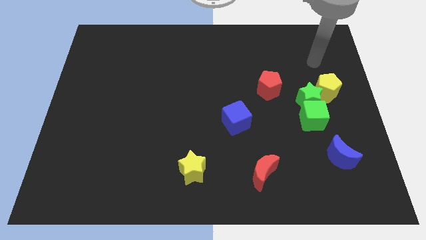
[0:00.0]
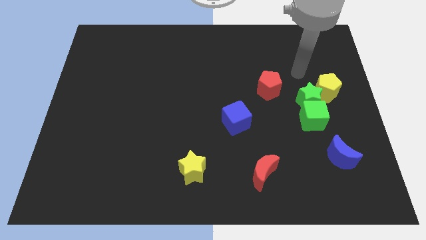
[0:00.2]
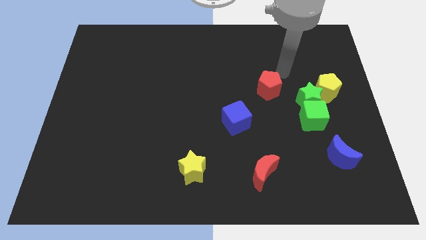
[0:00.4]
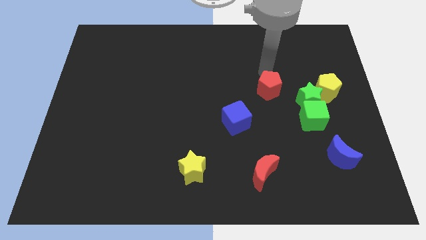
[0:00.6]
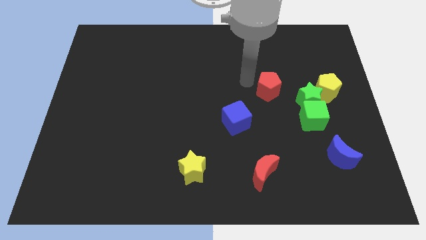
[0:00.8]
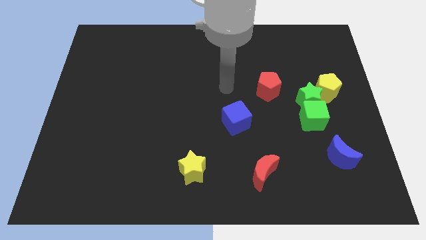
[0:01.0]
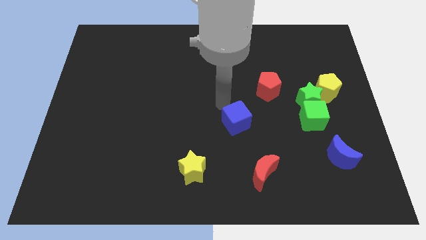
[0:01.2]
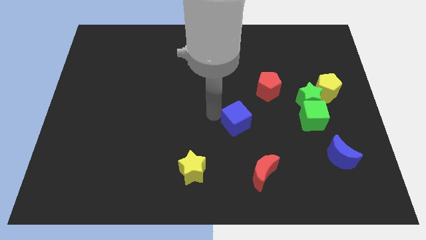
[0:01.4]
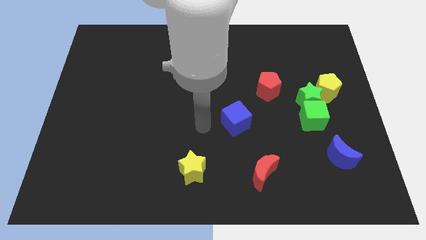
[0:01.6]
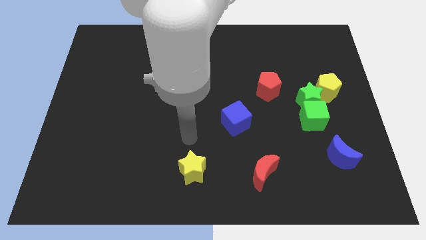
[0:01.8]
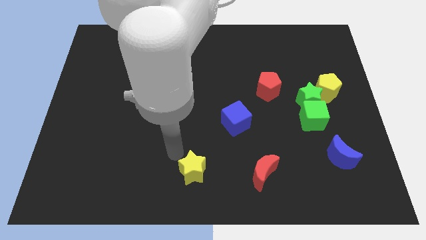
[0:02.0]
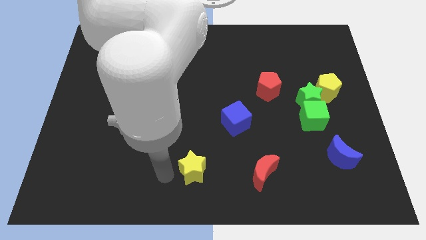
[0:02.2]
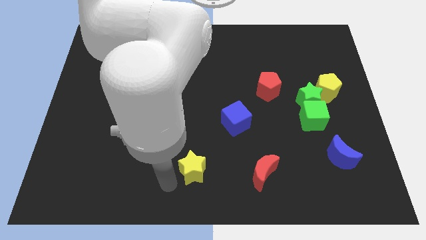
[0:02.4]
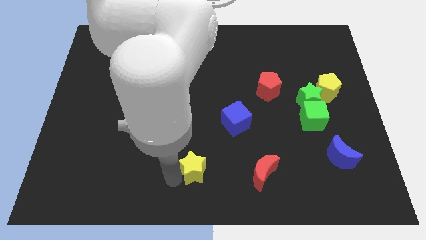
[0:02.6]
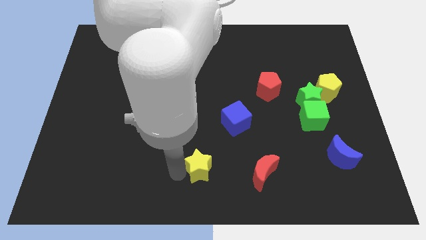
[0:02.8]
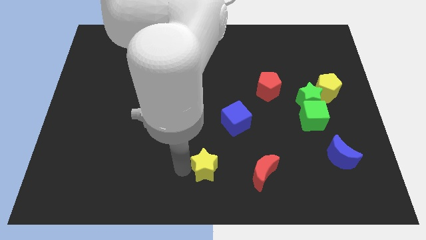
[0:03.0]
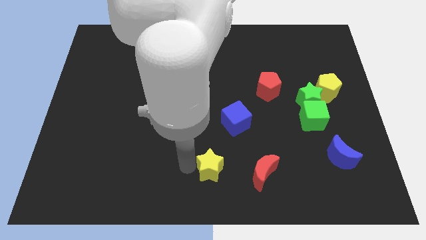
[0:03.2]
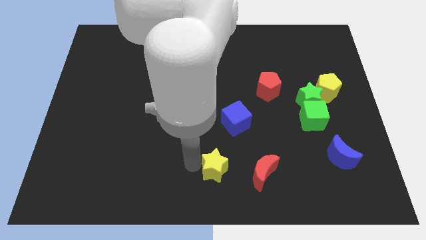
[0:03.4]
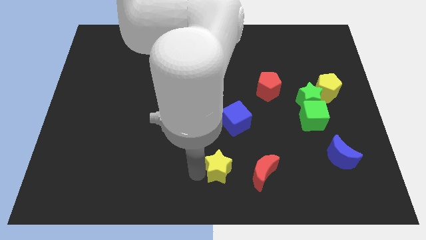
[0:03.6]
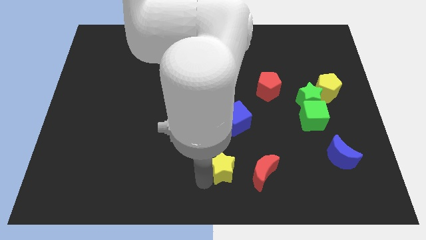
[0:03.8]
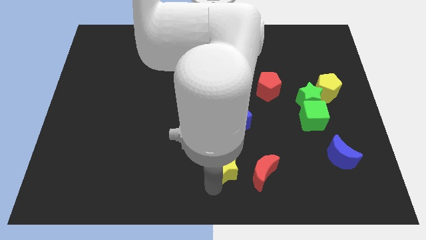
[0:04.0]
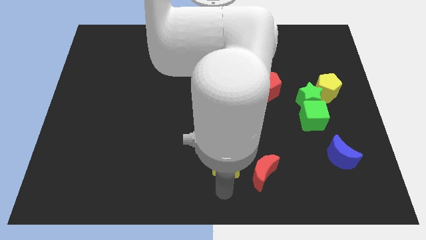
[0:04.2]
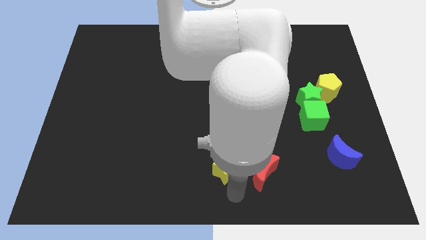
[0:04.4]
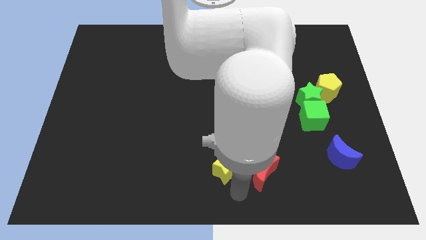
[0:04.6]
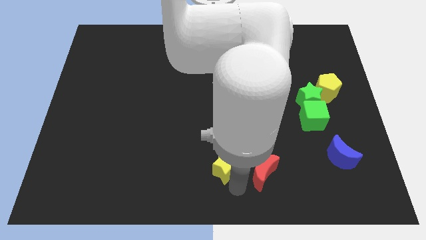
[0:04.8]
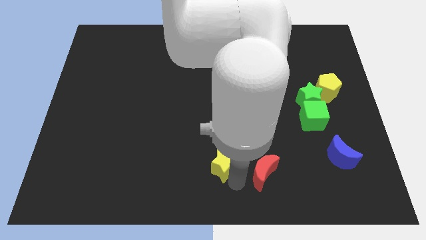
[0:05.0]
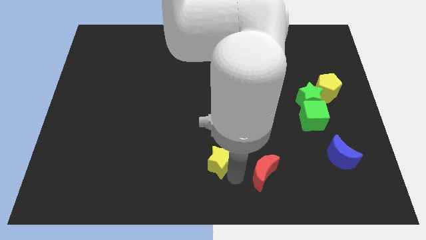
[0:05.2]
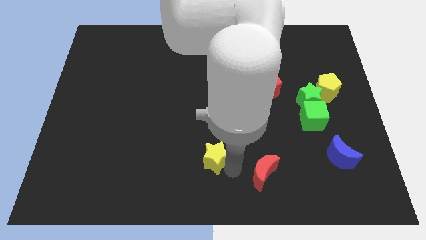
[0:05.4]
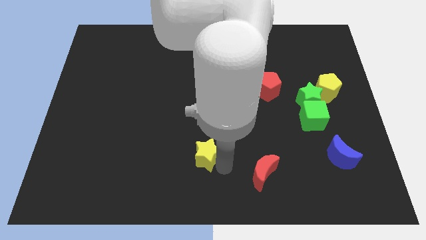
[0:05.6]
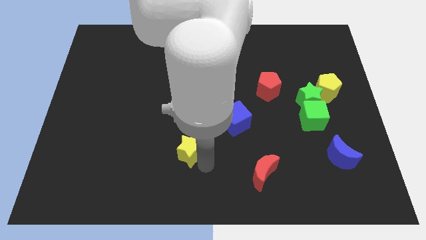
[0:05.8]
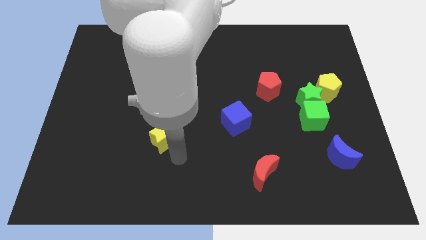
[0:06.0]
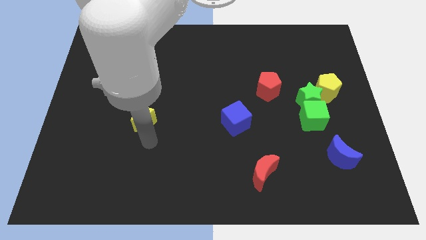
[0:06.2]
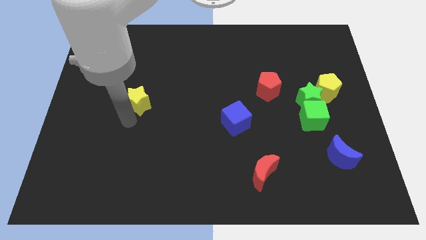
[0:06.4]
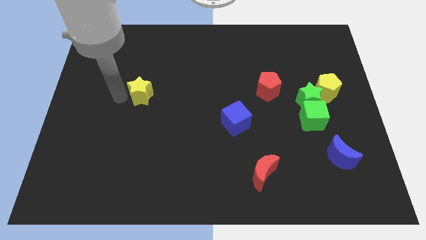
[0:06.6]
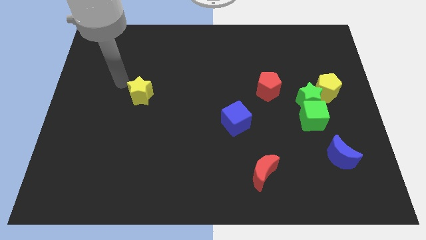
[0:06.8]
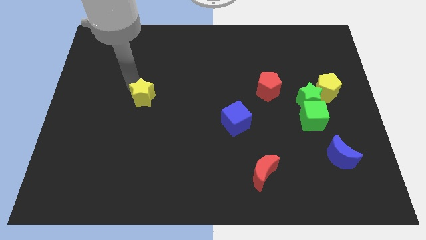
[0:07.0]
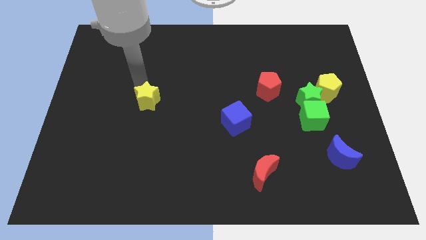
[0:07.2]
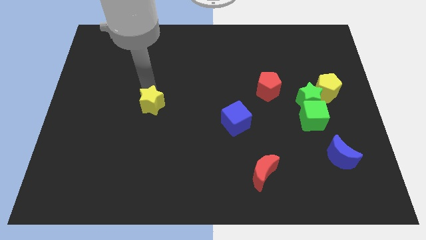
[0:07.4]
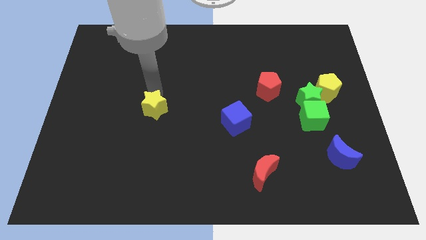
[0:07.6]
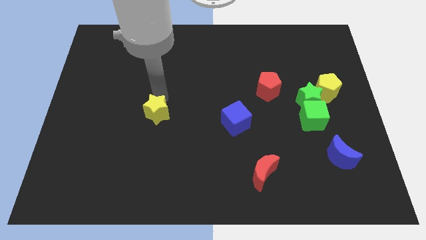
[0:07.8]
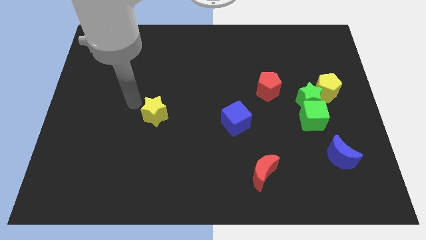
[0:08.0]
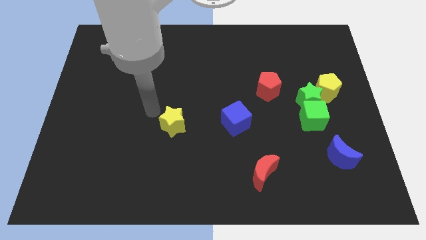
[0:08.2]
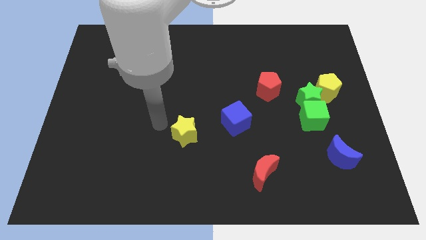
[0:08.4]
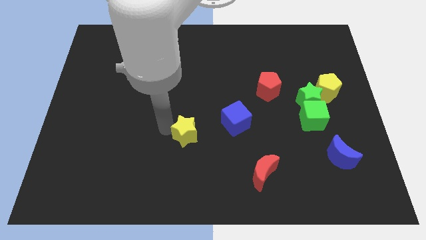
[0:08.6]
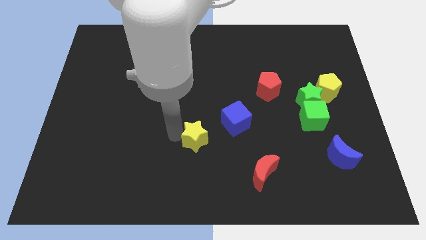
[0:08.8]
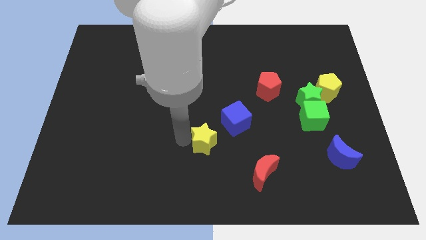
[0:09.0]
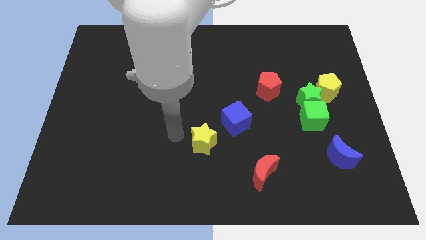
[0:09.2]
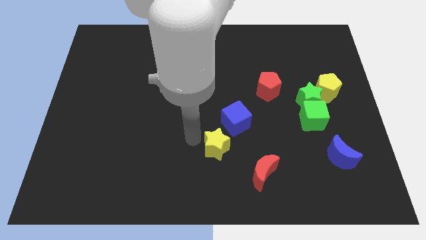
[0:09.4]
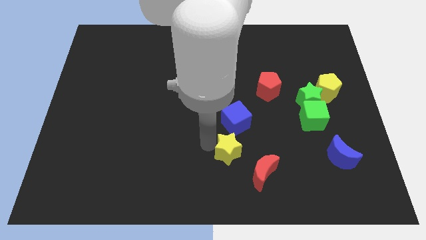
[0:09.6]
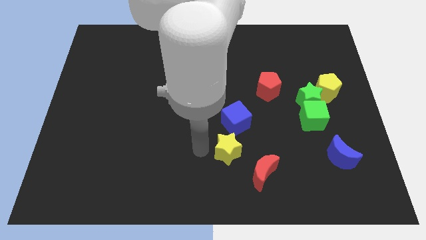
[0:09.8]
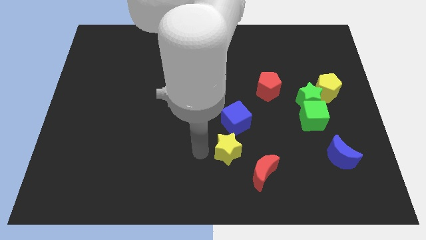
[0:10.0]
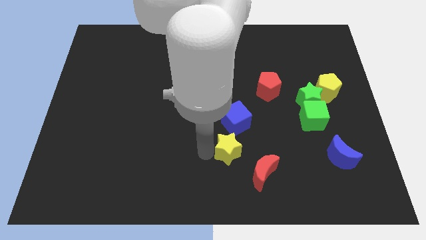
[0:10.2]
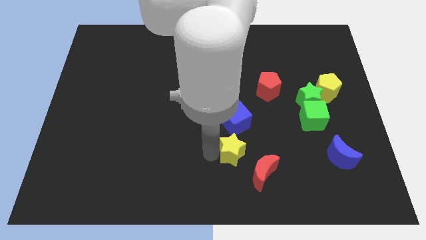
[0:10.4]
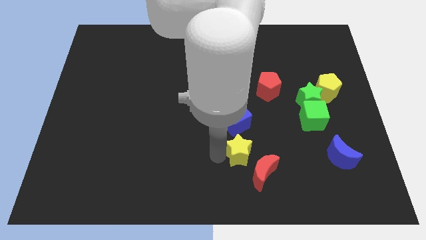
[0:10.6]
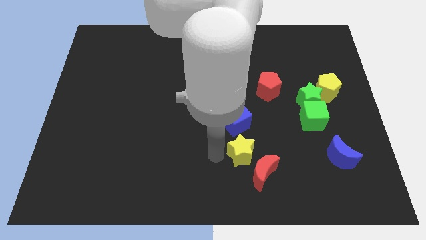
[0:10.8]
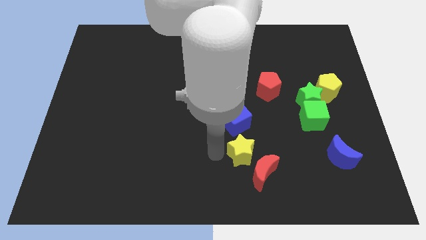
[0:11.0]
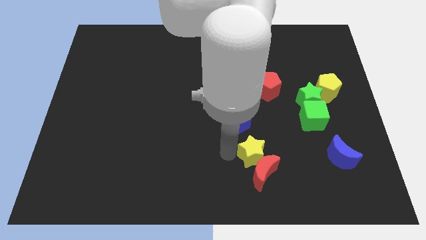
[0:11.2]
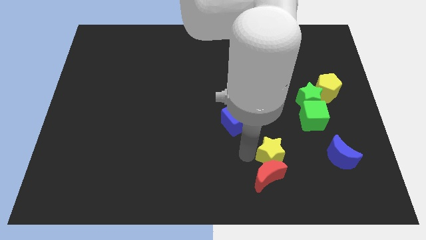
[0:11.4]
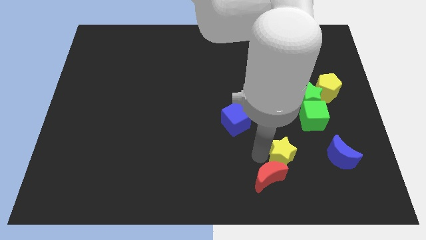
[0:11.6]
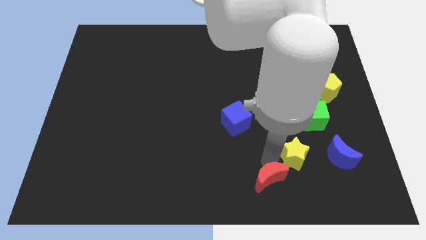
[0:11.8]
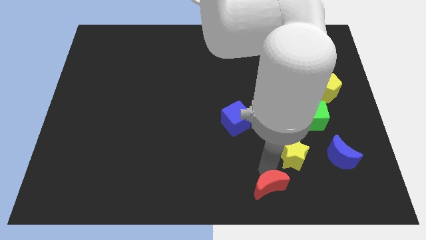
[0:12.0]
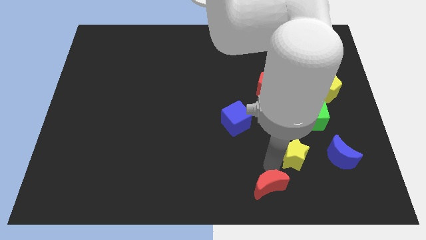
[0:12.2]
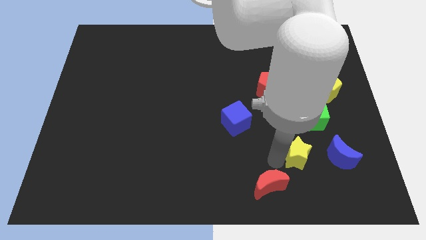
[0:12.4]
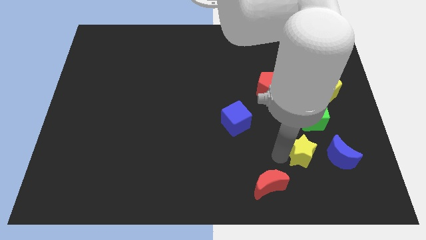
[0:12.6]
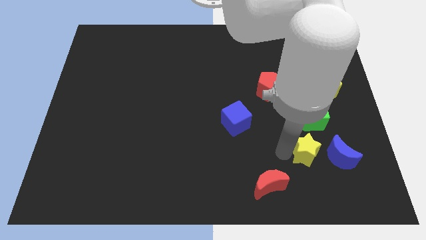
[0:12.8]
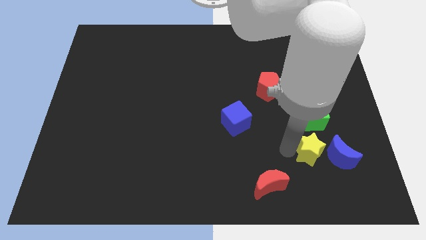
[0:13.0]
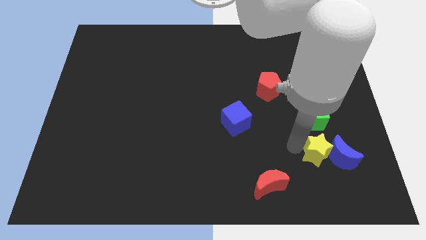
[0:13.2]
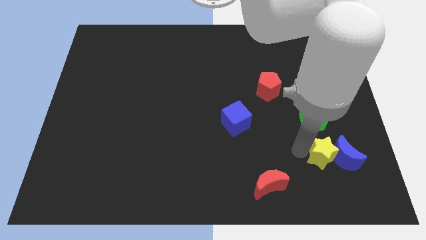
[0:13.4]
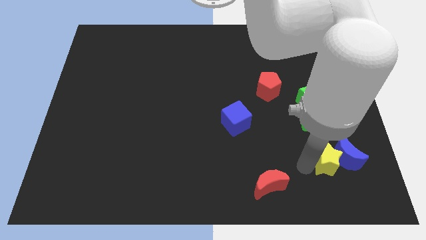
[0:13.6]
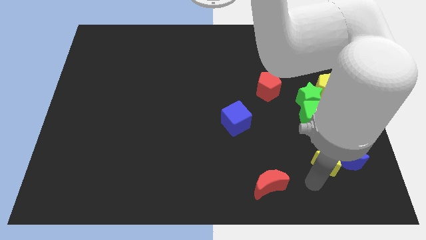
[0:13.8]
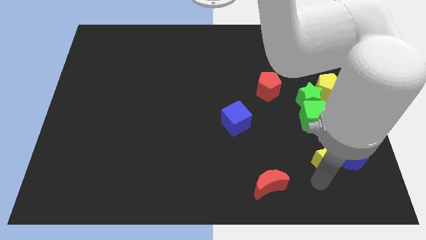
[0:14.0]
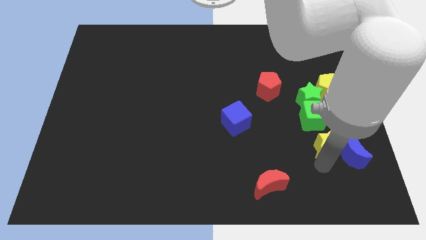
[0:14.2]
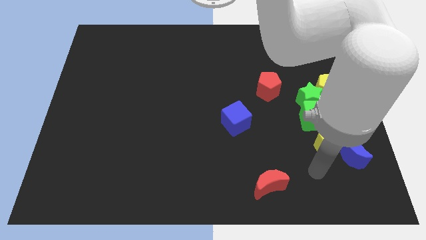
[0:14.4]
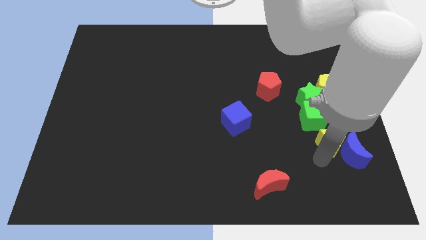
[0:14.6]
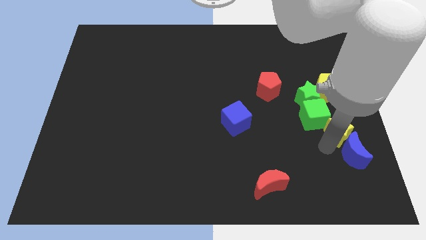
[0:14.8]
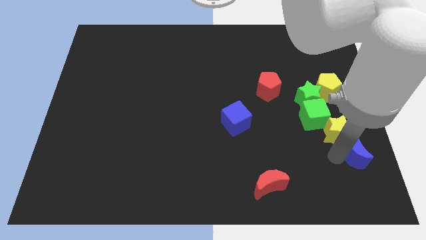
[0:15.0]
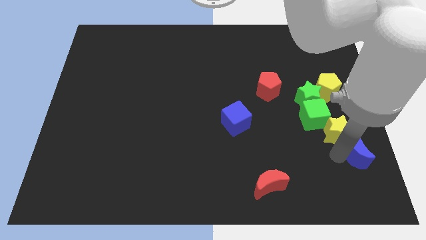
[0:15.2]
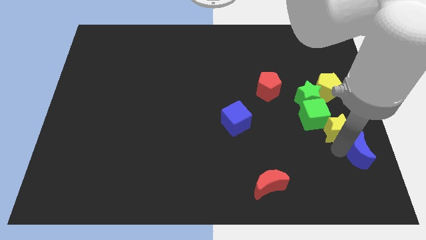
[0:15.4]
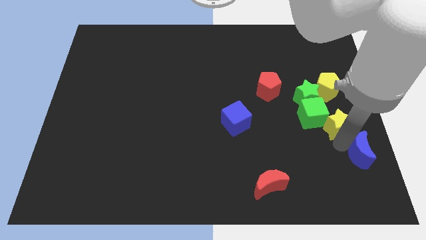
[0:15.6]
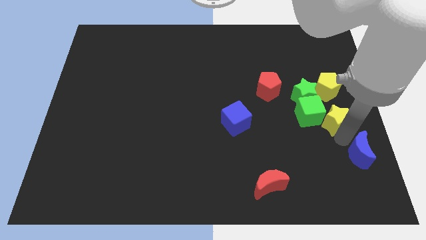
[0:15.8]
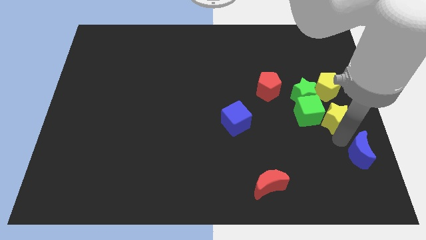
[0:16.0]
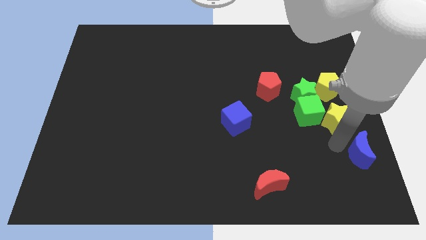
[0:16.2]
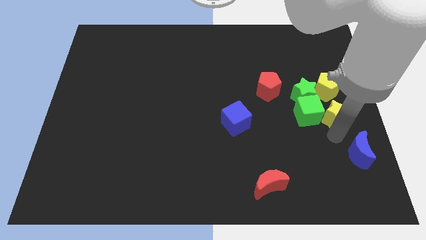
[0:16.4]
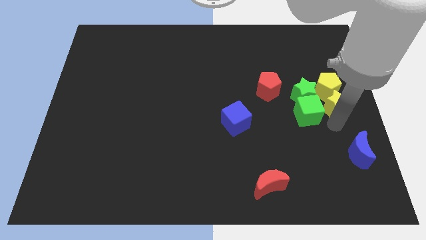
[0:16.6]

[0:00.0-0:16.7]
move the yellow star close to the yellow pentagon
